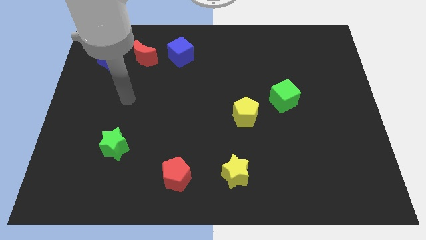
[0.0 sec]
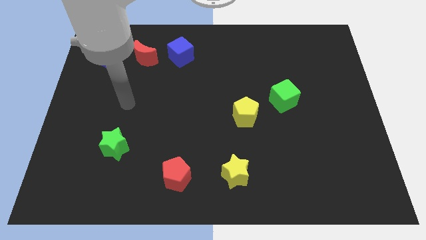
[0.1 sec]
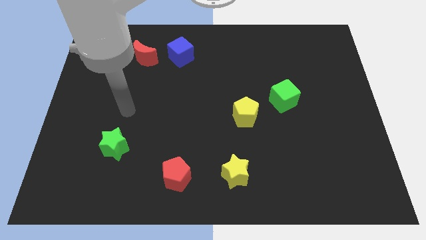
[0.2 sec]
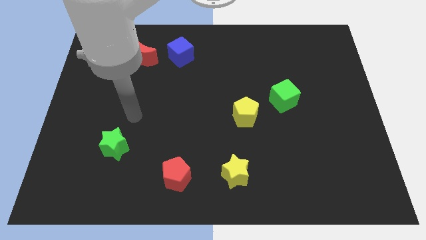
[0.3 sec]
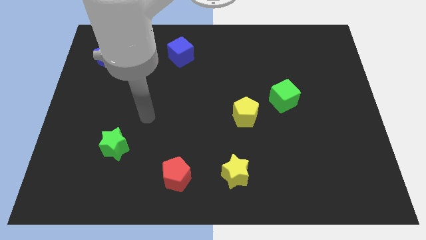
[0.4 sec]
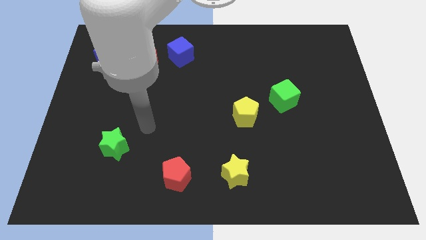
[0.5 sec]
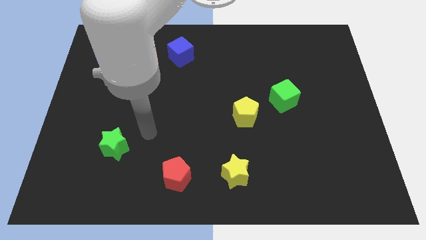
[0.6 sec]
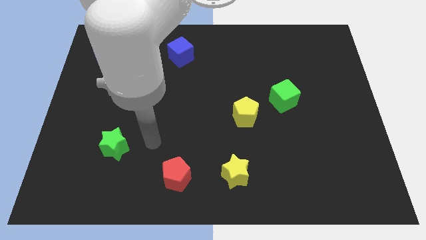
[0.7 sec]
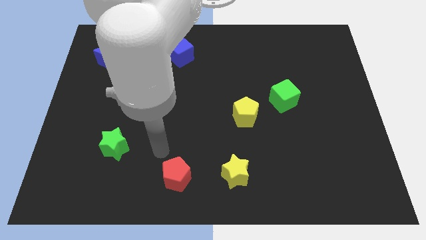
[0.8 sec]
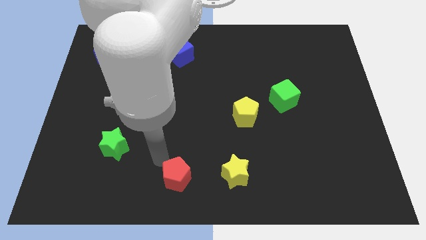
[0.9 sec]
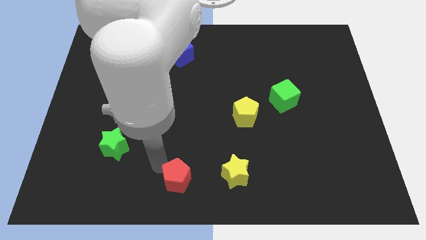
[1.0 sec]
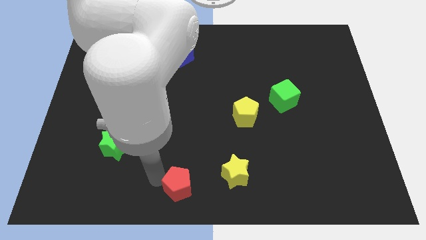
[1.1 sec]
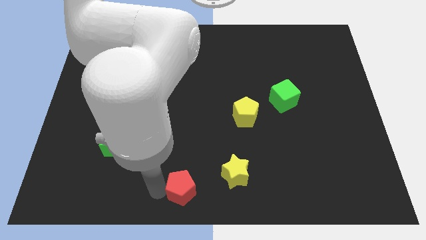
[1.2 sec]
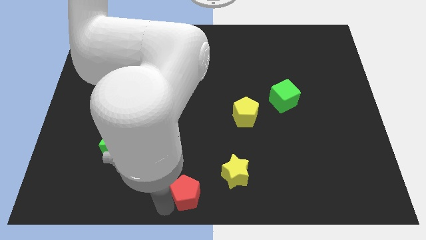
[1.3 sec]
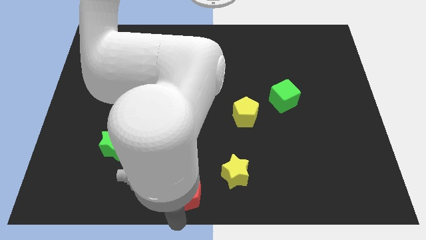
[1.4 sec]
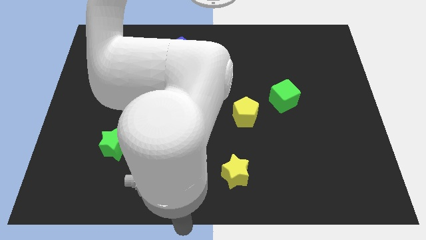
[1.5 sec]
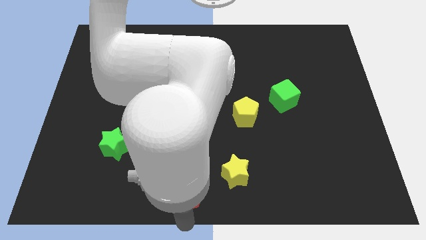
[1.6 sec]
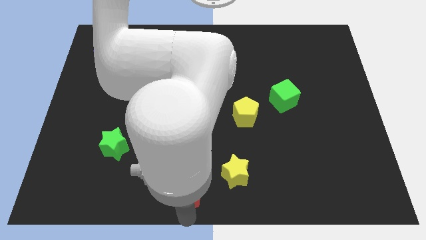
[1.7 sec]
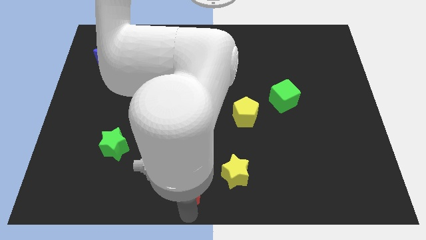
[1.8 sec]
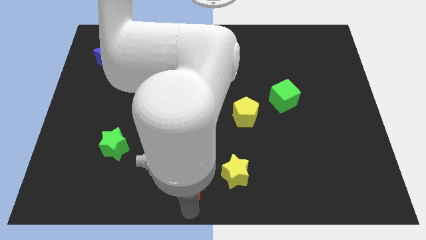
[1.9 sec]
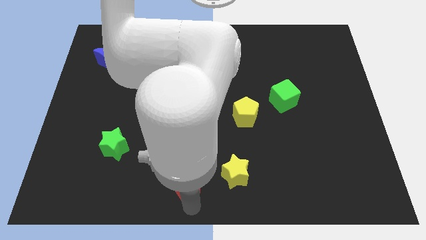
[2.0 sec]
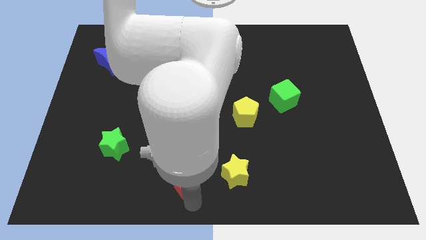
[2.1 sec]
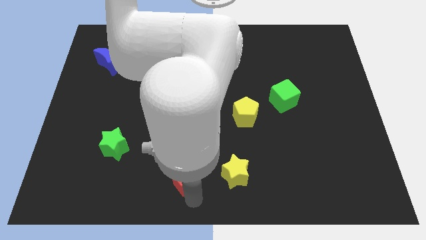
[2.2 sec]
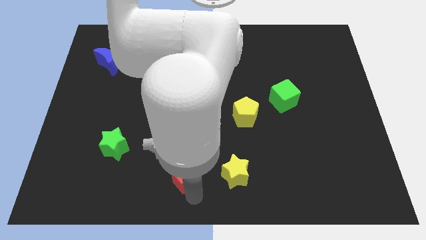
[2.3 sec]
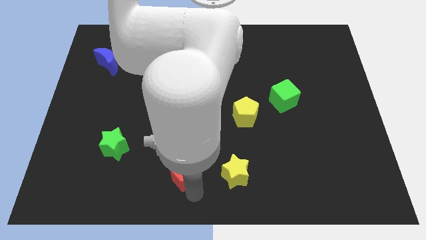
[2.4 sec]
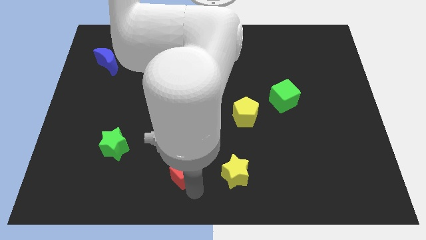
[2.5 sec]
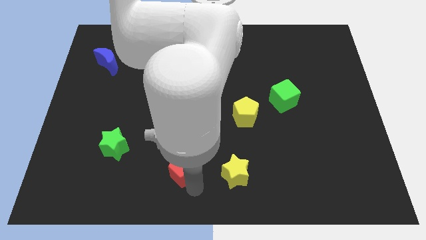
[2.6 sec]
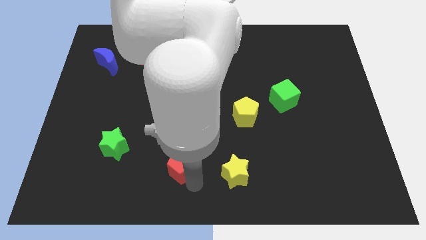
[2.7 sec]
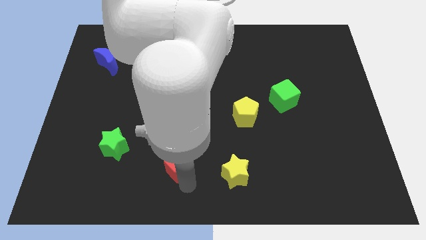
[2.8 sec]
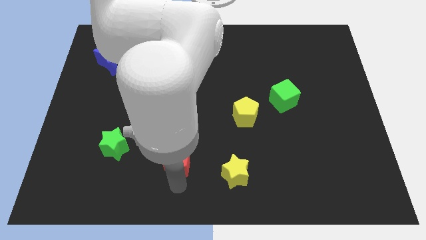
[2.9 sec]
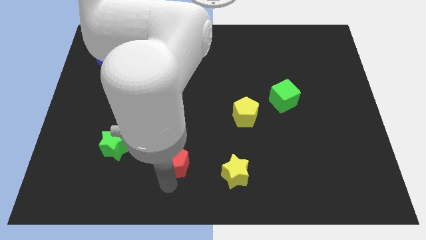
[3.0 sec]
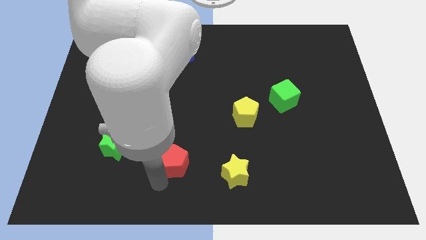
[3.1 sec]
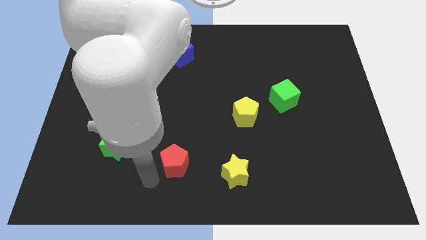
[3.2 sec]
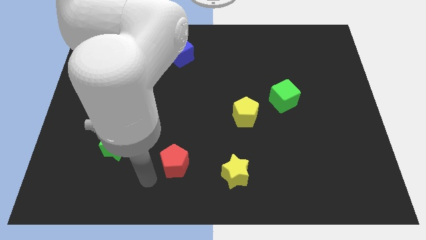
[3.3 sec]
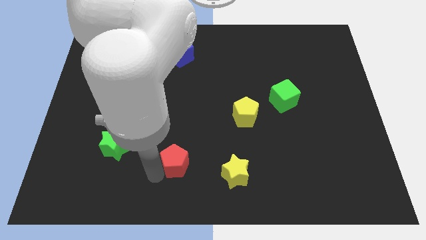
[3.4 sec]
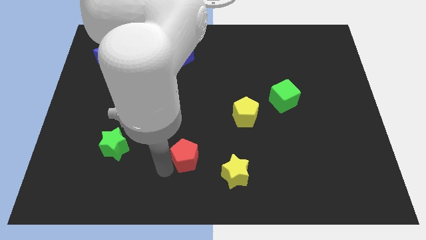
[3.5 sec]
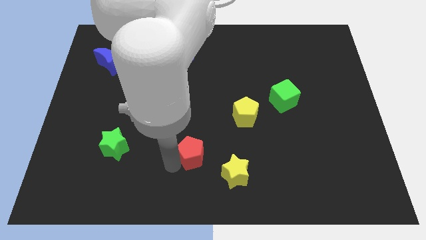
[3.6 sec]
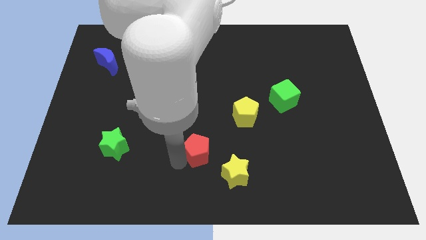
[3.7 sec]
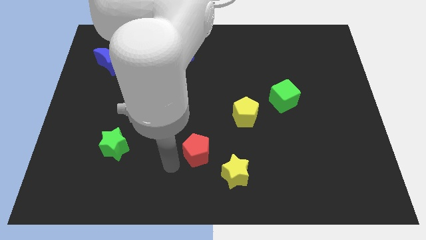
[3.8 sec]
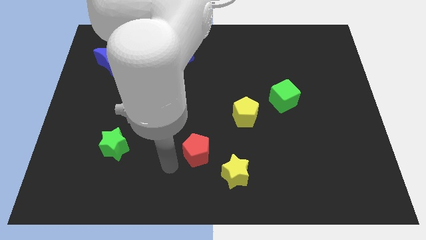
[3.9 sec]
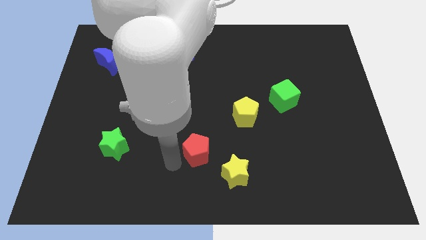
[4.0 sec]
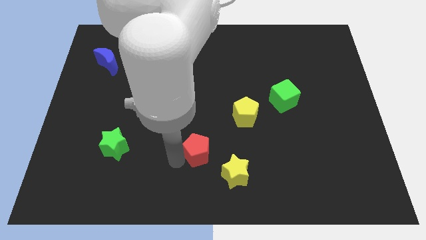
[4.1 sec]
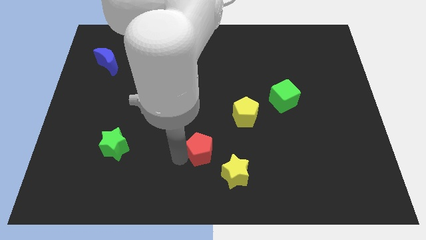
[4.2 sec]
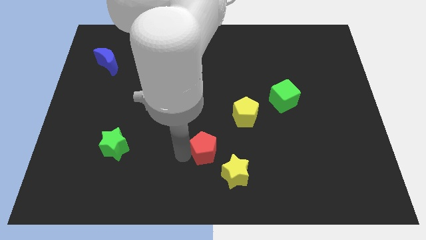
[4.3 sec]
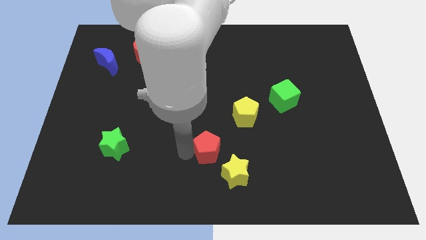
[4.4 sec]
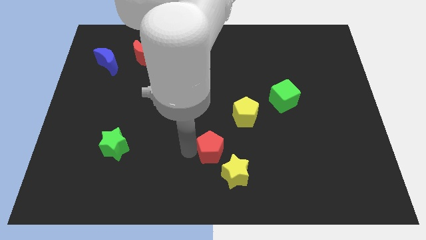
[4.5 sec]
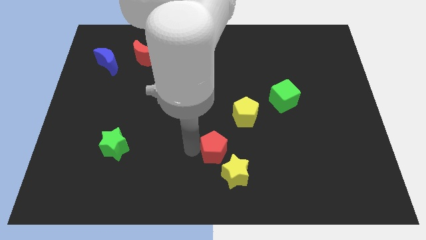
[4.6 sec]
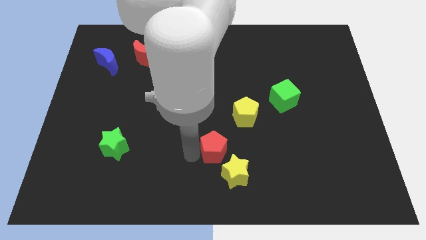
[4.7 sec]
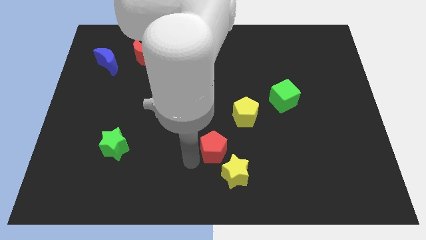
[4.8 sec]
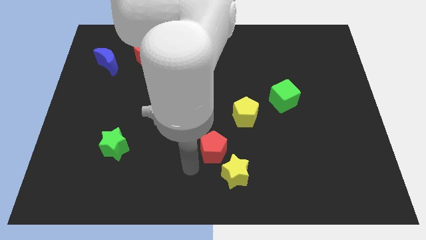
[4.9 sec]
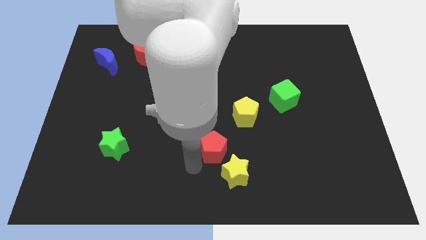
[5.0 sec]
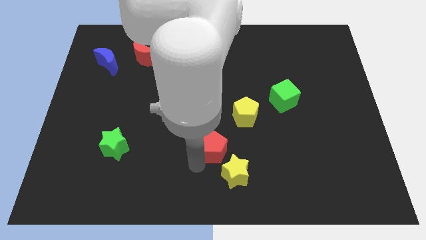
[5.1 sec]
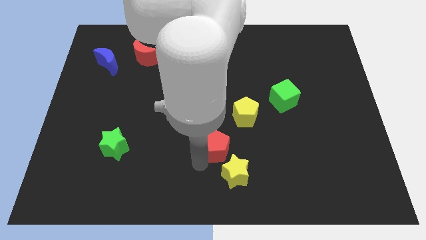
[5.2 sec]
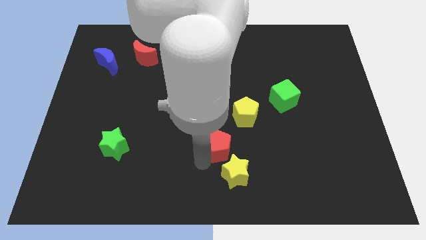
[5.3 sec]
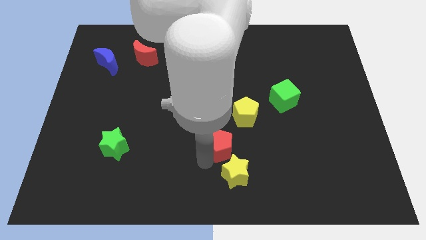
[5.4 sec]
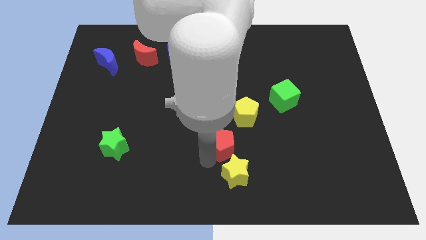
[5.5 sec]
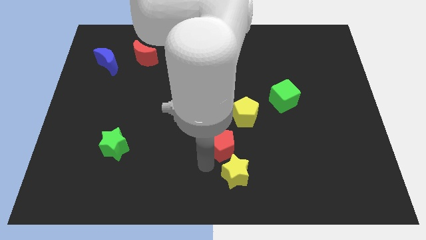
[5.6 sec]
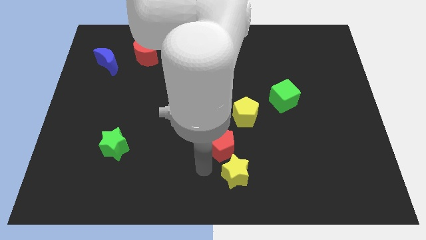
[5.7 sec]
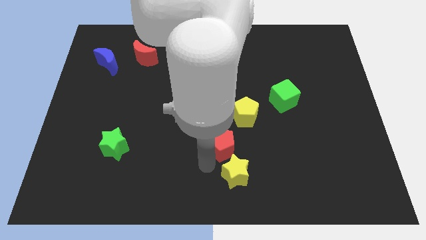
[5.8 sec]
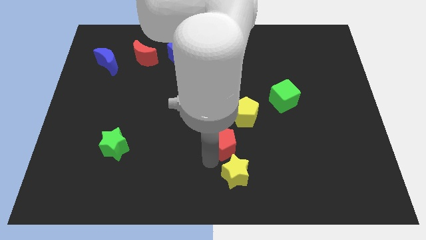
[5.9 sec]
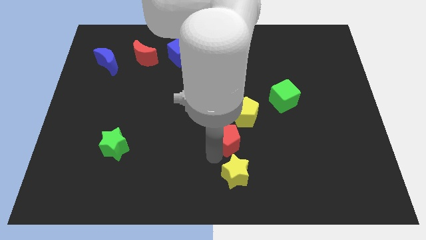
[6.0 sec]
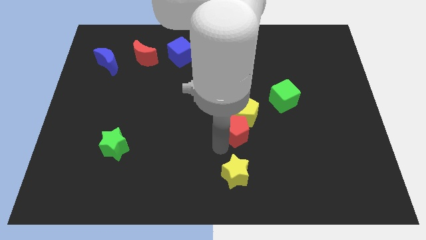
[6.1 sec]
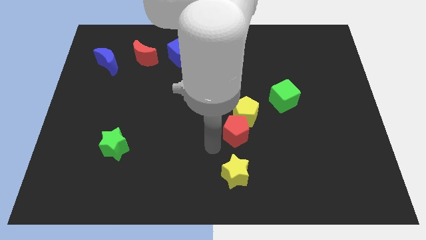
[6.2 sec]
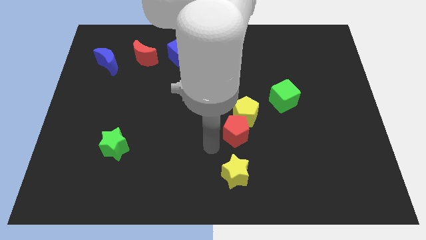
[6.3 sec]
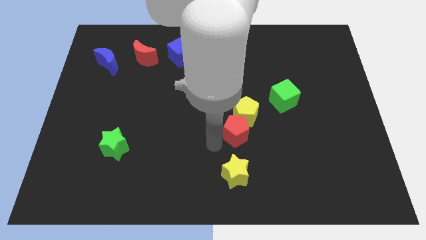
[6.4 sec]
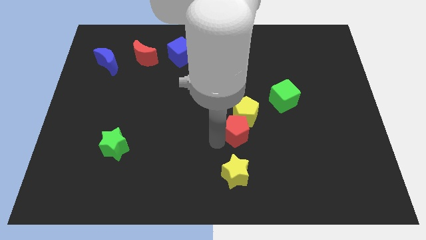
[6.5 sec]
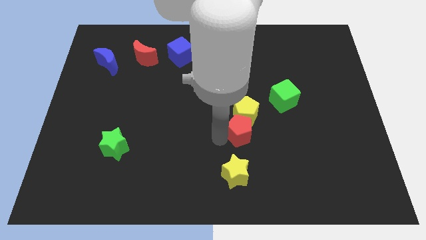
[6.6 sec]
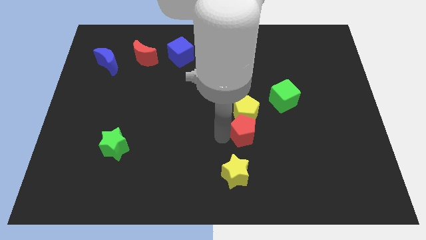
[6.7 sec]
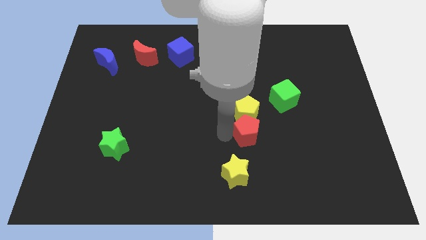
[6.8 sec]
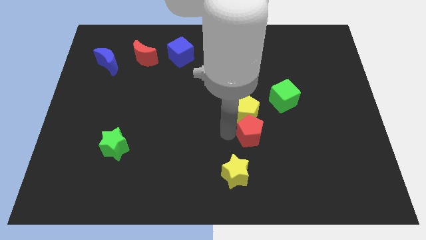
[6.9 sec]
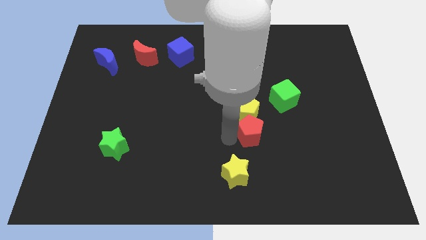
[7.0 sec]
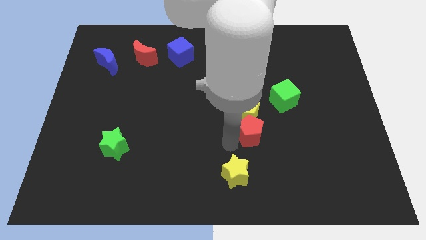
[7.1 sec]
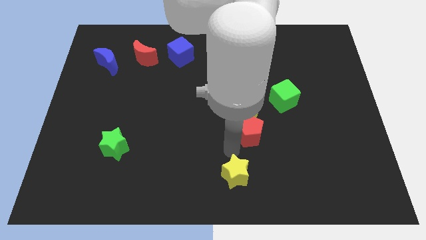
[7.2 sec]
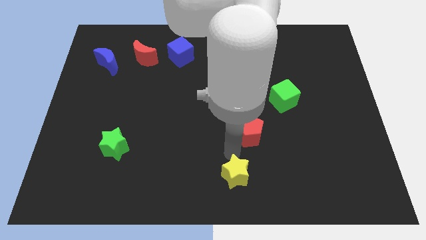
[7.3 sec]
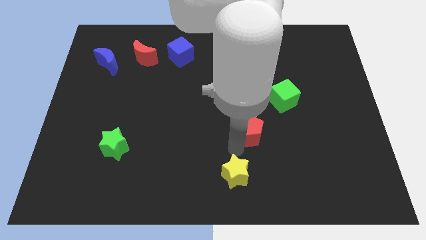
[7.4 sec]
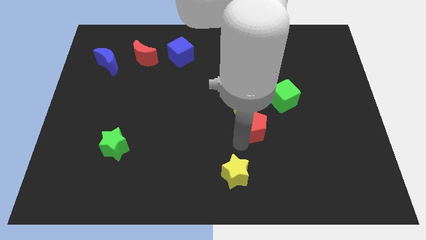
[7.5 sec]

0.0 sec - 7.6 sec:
move the red pentagon diagonally down and to the left of the green cube
